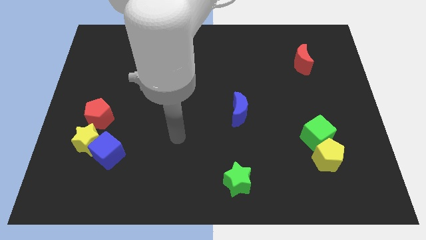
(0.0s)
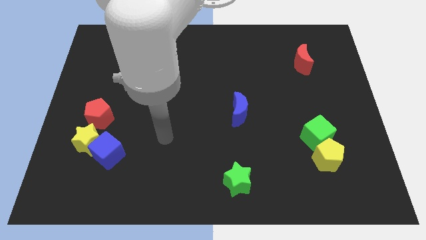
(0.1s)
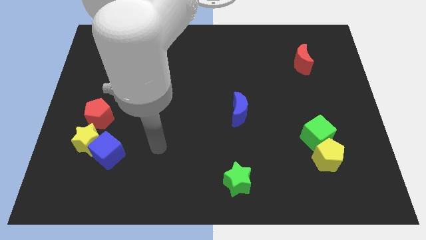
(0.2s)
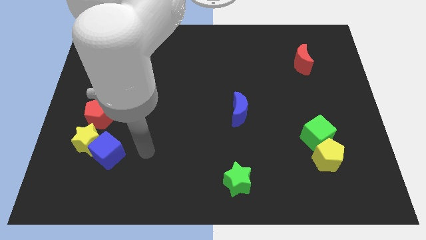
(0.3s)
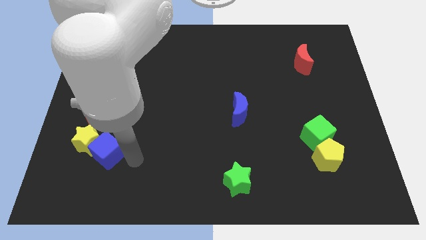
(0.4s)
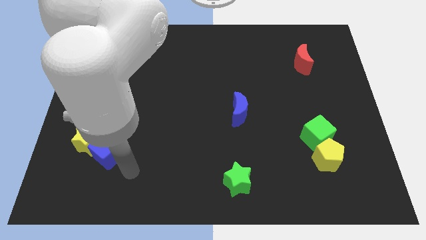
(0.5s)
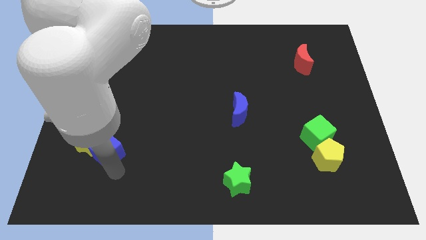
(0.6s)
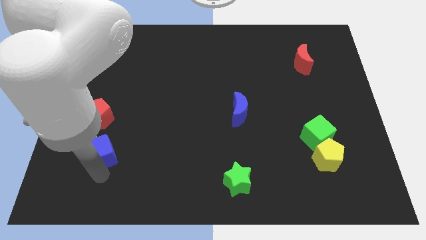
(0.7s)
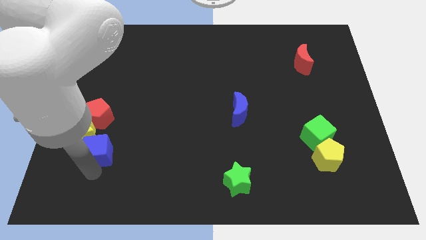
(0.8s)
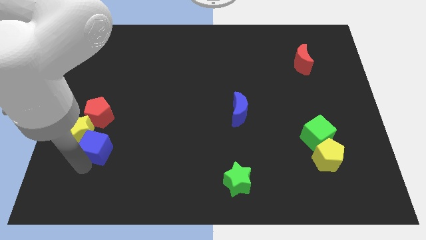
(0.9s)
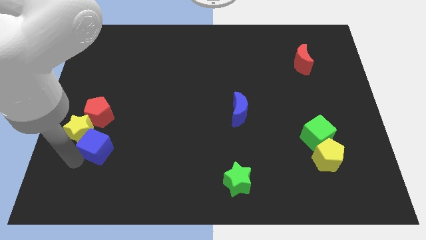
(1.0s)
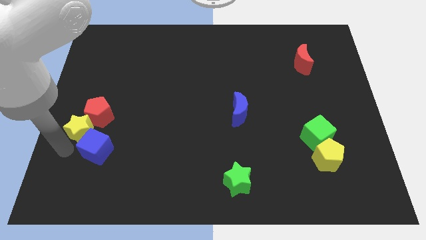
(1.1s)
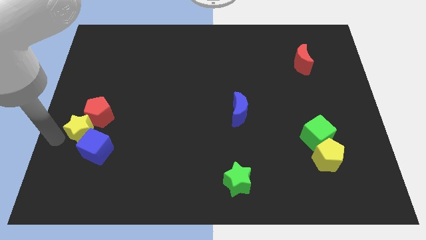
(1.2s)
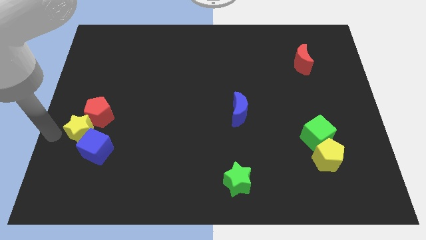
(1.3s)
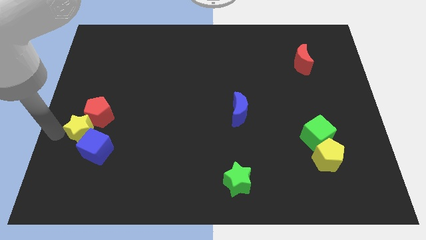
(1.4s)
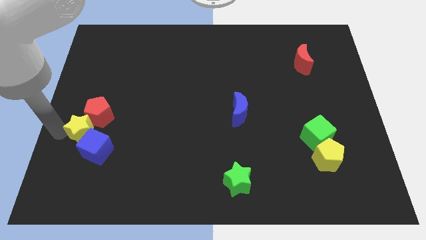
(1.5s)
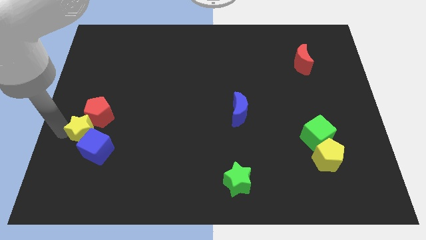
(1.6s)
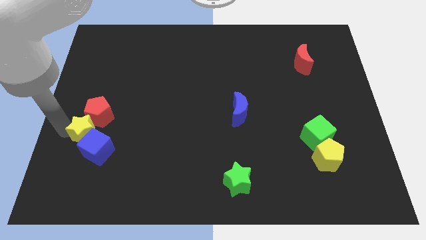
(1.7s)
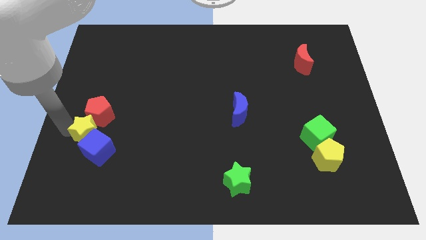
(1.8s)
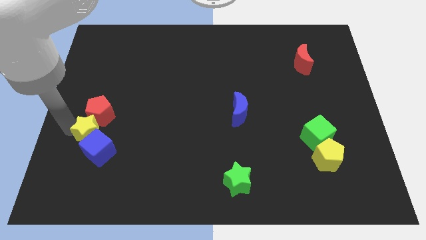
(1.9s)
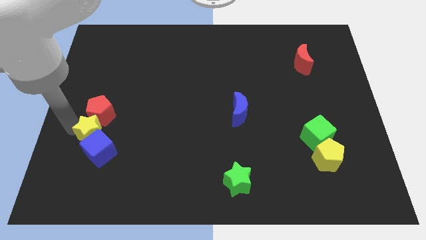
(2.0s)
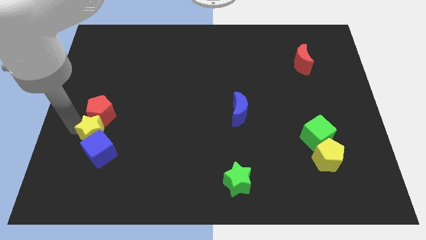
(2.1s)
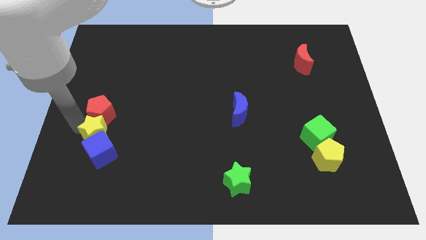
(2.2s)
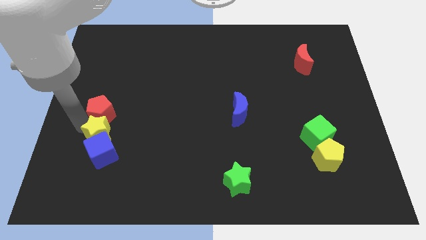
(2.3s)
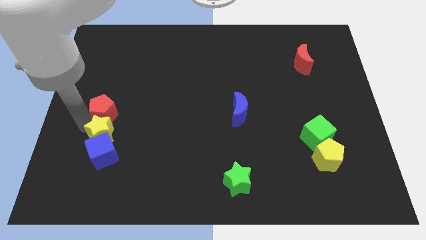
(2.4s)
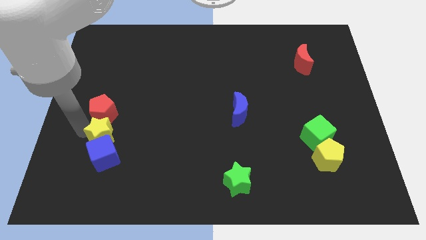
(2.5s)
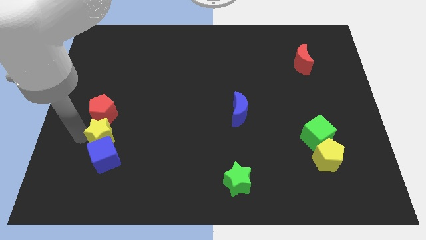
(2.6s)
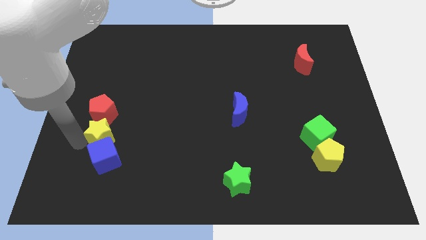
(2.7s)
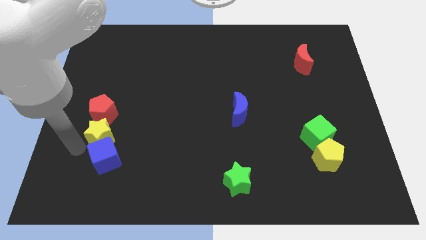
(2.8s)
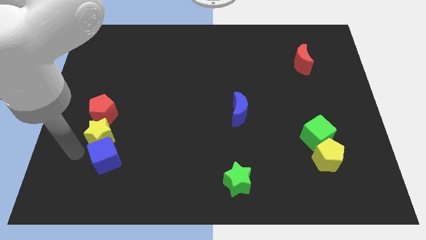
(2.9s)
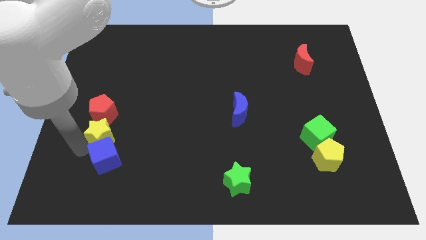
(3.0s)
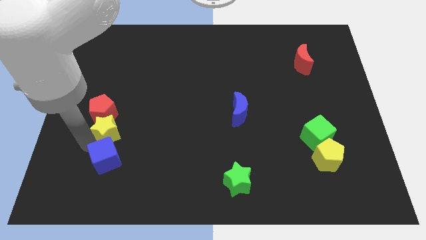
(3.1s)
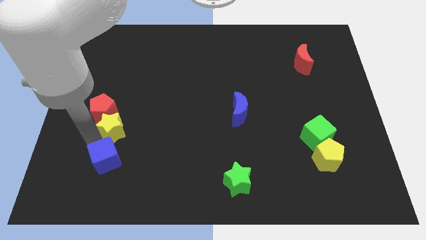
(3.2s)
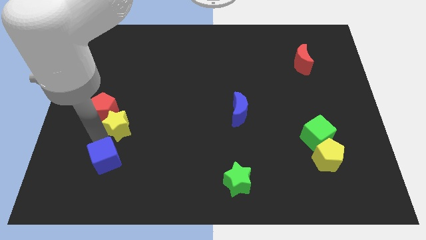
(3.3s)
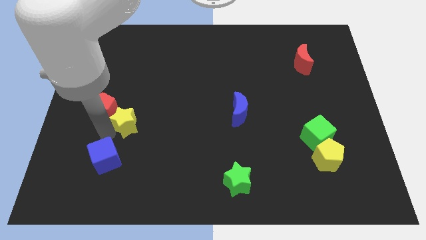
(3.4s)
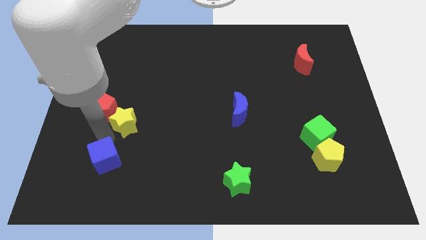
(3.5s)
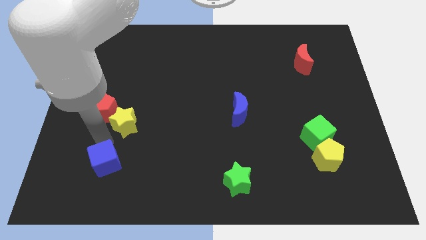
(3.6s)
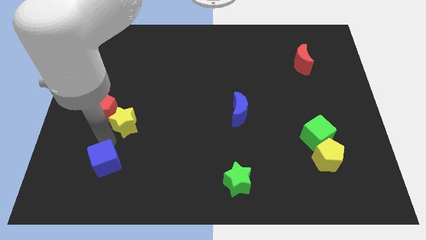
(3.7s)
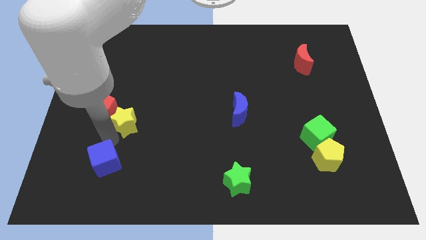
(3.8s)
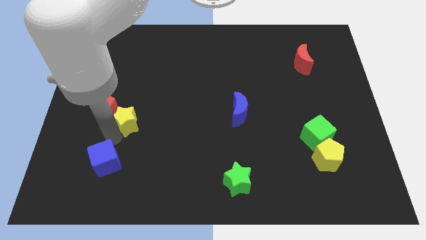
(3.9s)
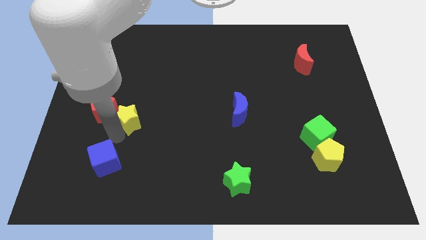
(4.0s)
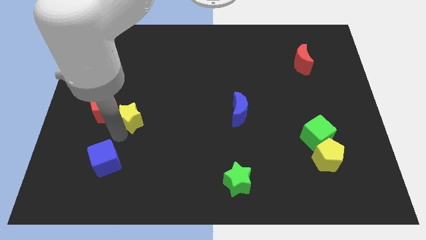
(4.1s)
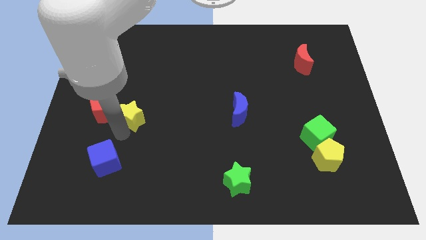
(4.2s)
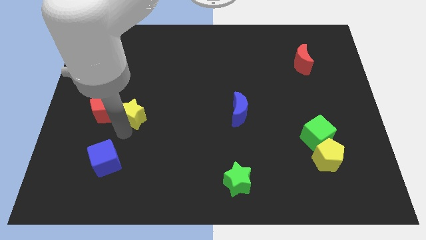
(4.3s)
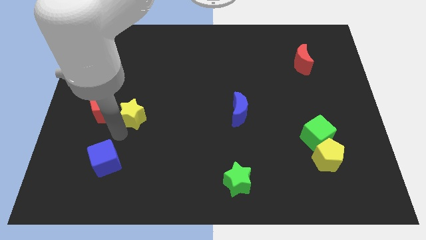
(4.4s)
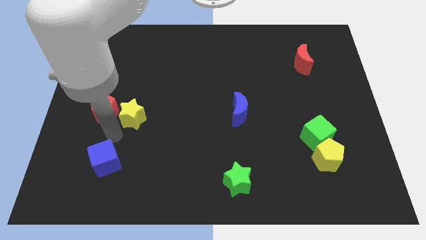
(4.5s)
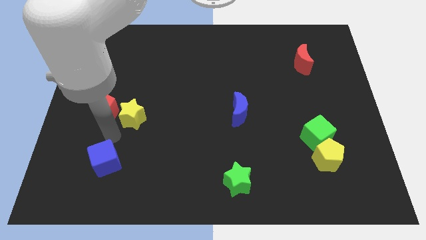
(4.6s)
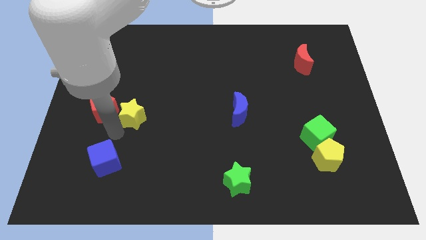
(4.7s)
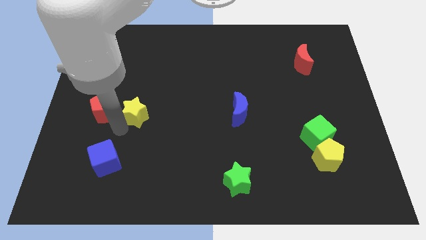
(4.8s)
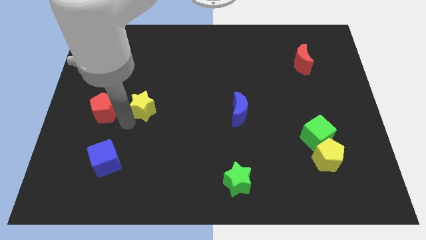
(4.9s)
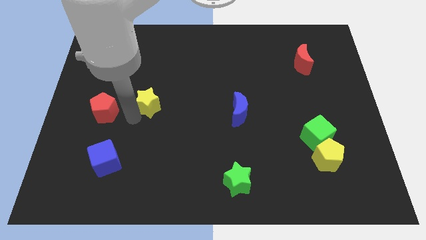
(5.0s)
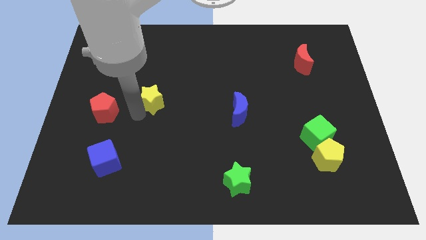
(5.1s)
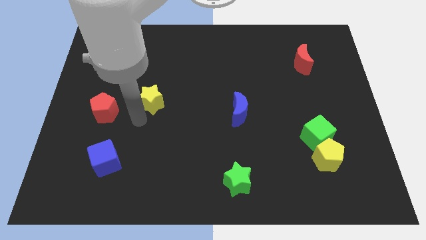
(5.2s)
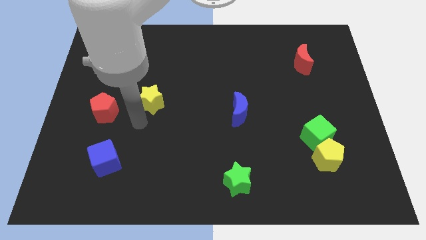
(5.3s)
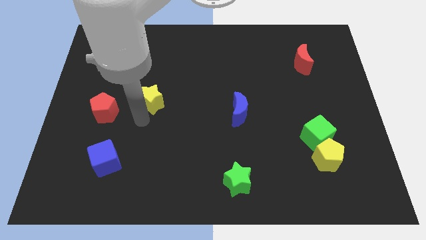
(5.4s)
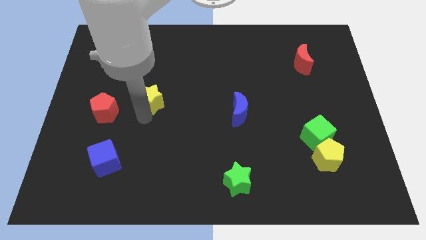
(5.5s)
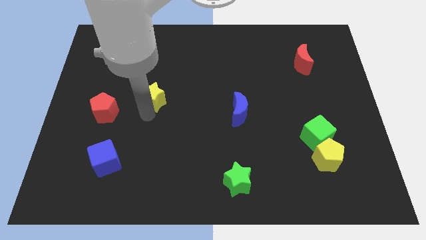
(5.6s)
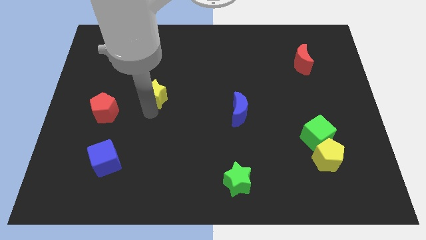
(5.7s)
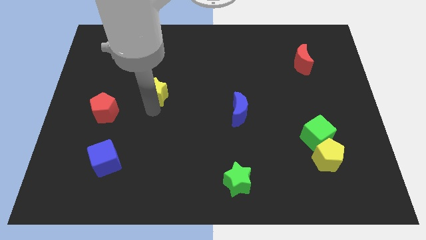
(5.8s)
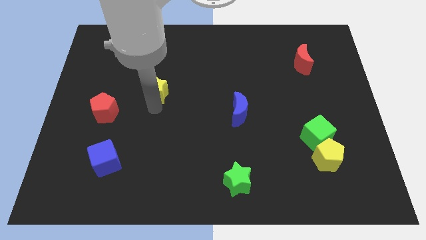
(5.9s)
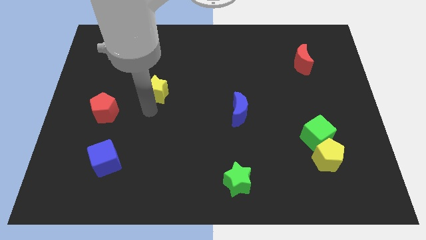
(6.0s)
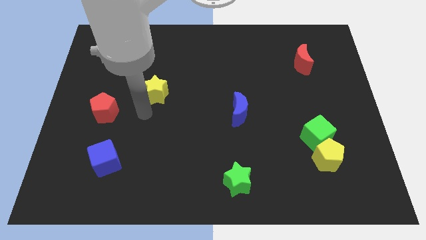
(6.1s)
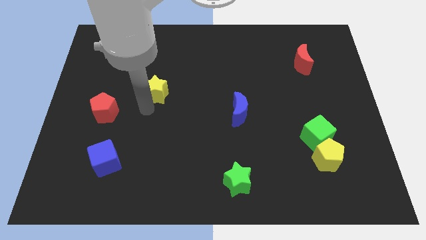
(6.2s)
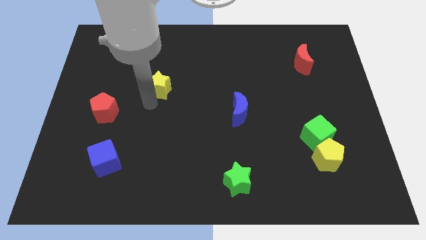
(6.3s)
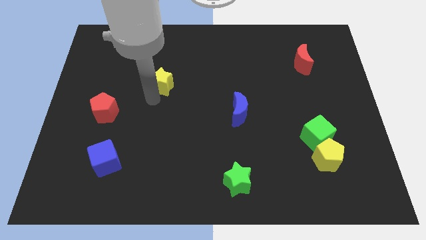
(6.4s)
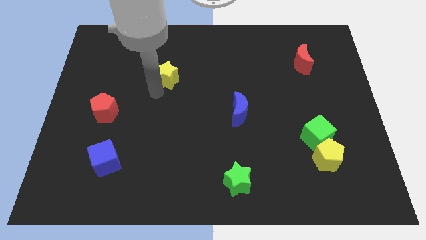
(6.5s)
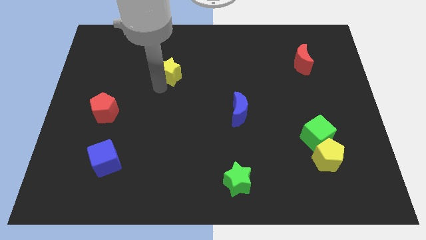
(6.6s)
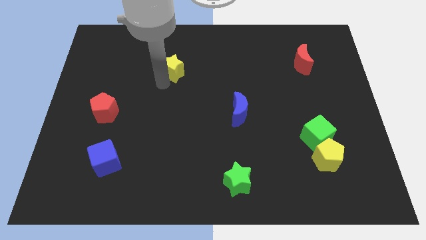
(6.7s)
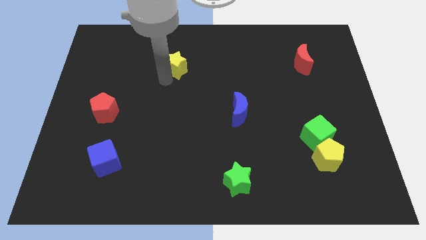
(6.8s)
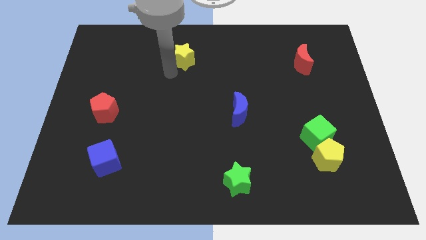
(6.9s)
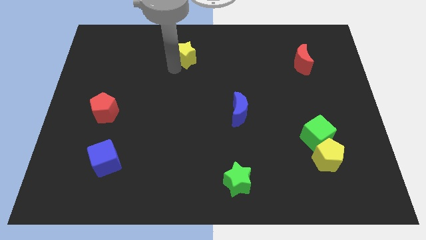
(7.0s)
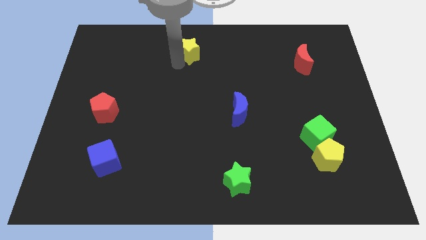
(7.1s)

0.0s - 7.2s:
push the yellow star to the top side

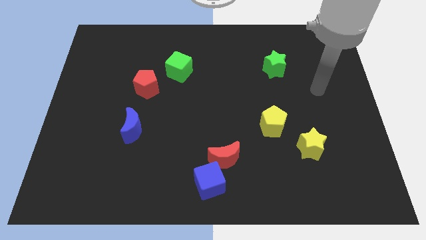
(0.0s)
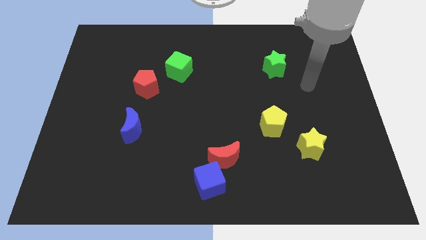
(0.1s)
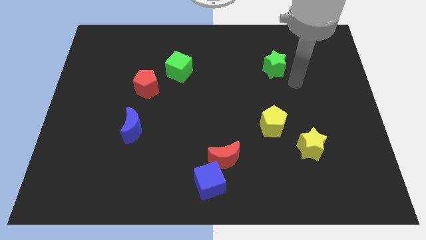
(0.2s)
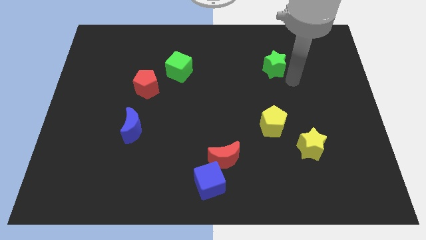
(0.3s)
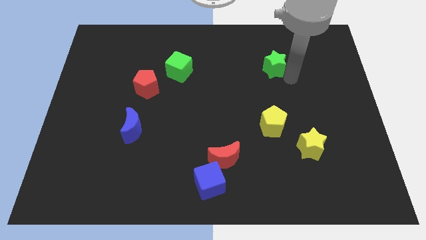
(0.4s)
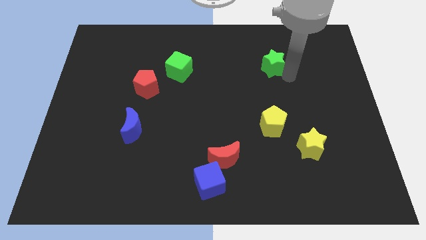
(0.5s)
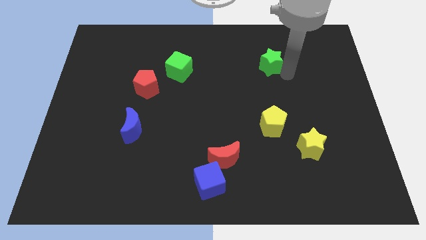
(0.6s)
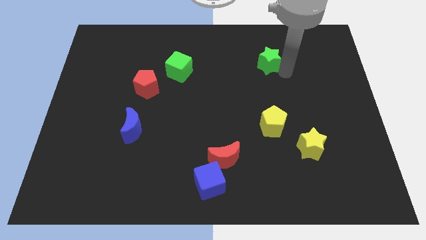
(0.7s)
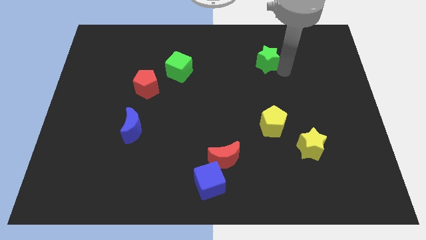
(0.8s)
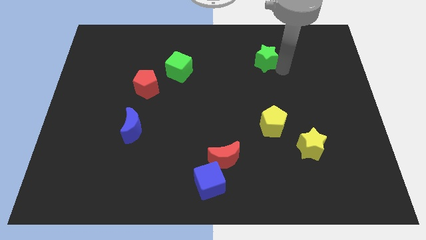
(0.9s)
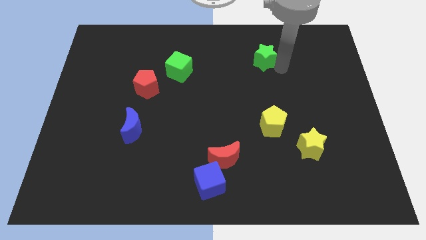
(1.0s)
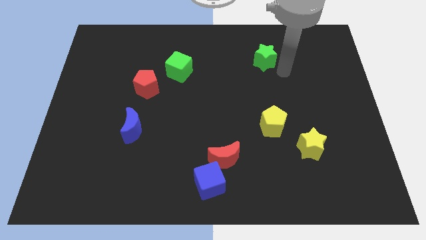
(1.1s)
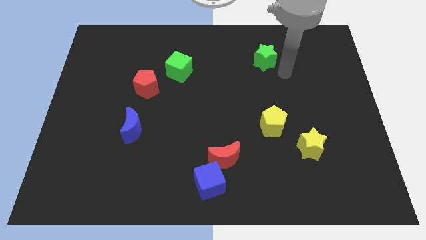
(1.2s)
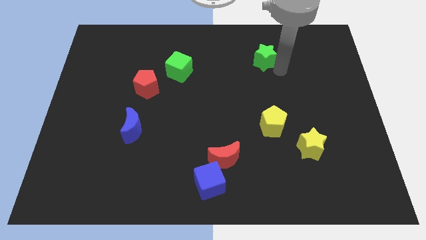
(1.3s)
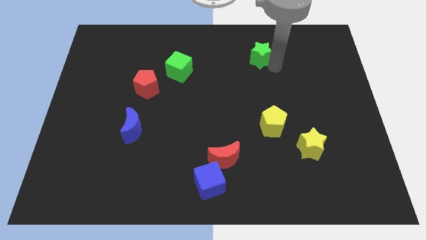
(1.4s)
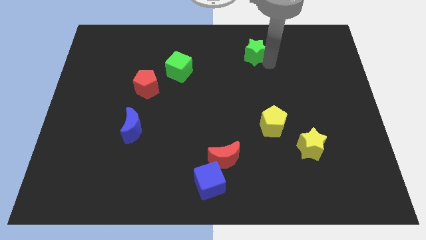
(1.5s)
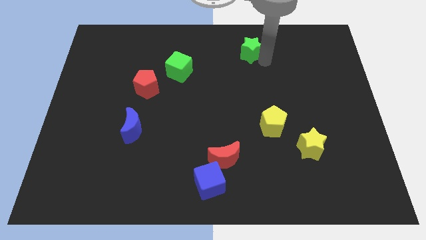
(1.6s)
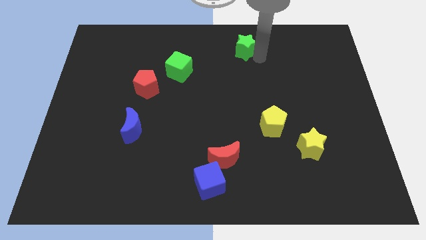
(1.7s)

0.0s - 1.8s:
push the green star to the towards your base
